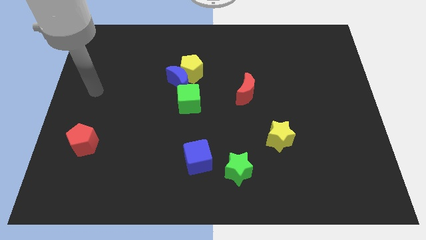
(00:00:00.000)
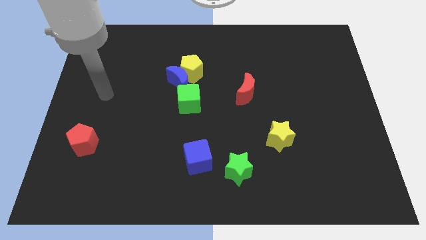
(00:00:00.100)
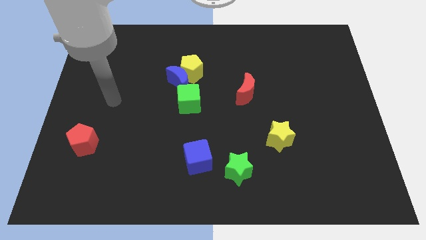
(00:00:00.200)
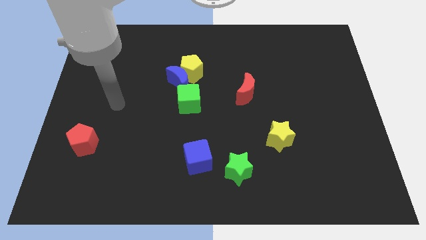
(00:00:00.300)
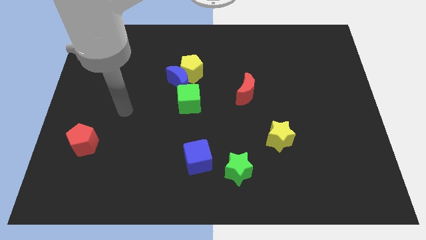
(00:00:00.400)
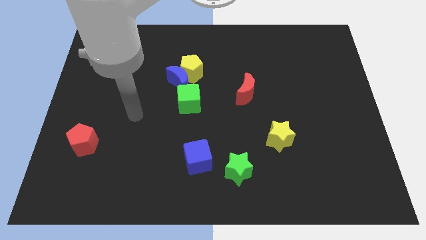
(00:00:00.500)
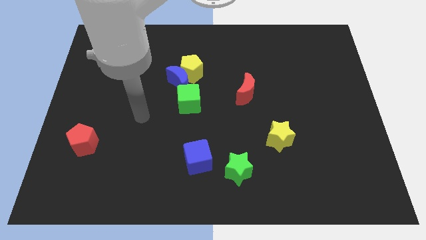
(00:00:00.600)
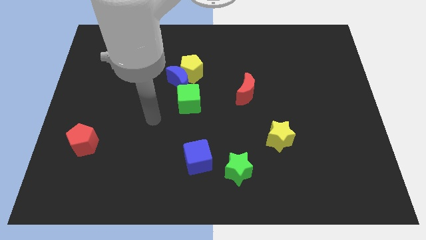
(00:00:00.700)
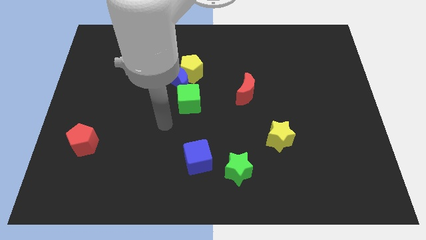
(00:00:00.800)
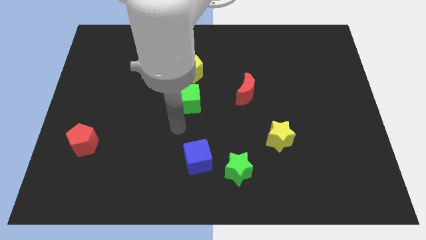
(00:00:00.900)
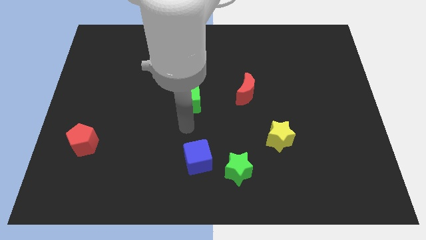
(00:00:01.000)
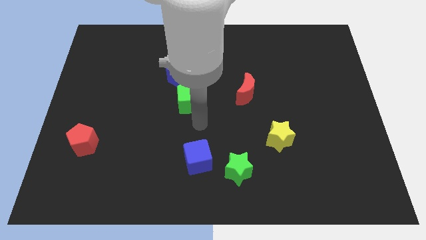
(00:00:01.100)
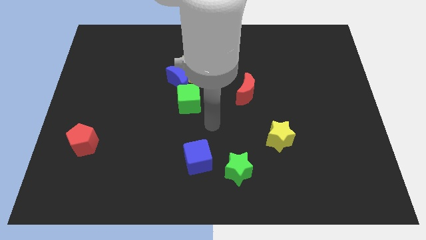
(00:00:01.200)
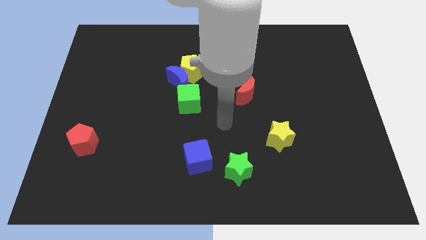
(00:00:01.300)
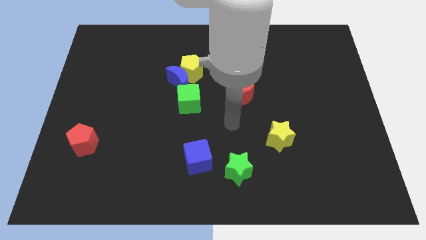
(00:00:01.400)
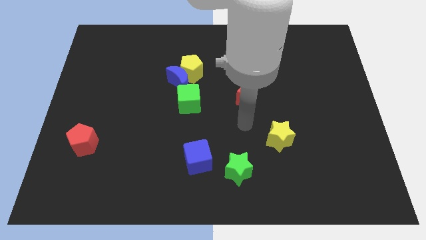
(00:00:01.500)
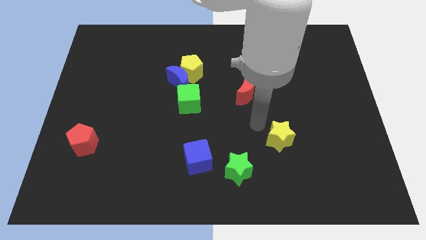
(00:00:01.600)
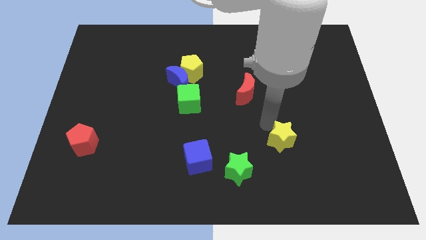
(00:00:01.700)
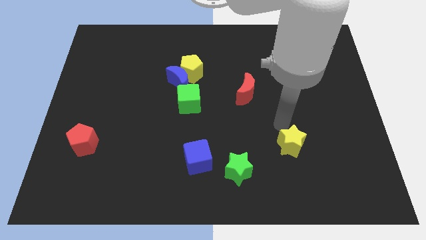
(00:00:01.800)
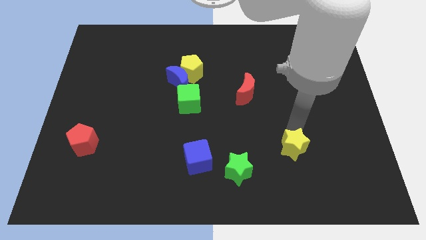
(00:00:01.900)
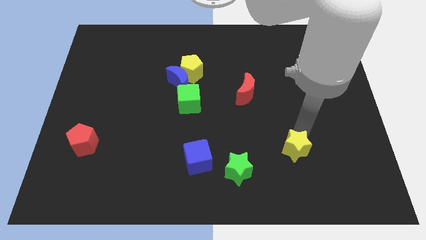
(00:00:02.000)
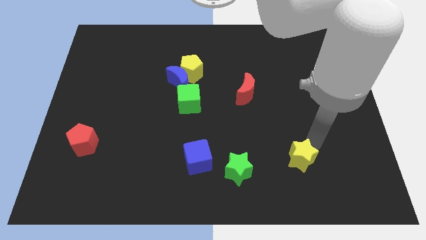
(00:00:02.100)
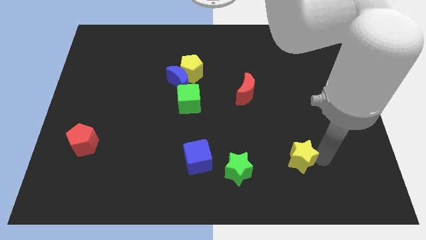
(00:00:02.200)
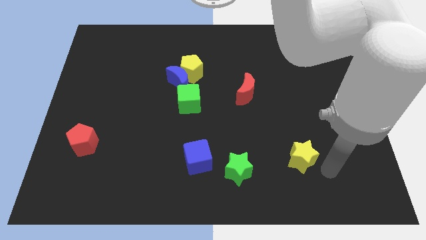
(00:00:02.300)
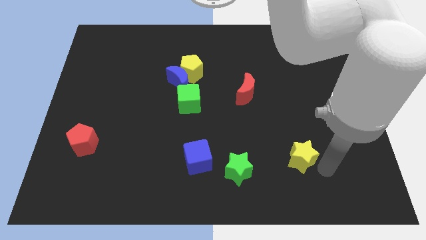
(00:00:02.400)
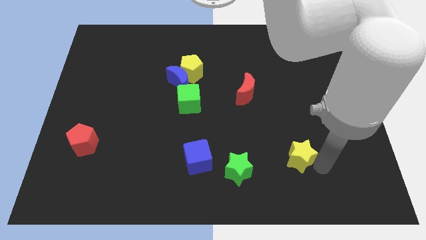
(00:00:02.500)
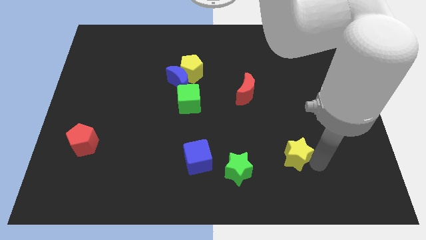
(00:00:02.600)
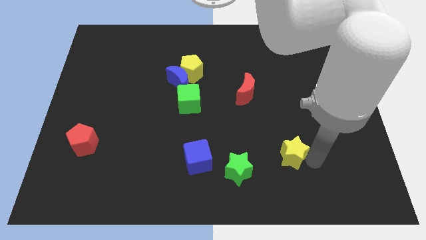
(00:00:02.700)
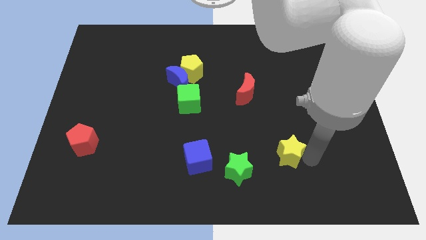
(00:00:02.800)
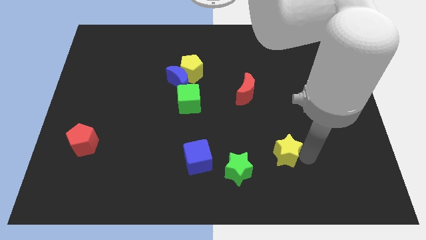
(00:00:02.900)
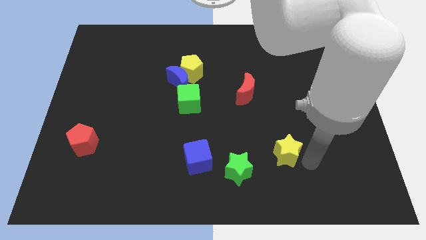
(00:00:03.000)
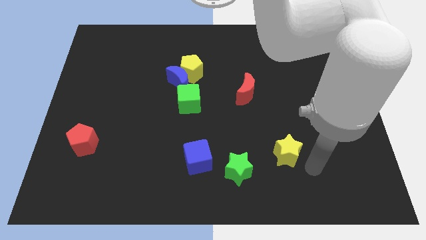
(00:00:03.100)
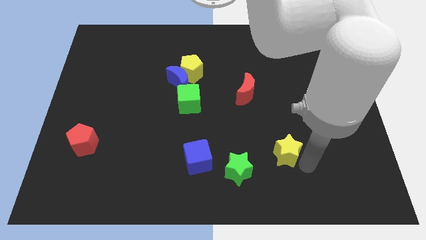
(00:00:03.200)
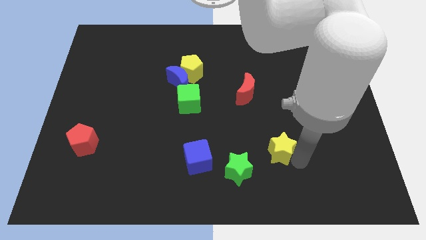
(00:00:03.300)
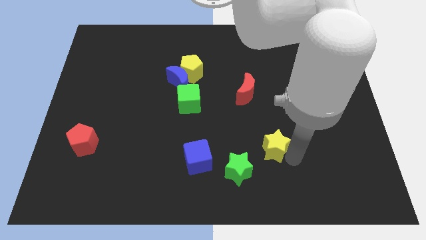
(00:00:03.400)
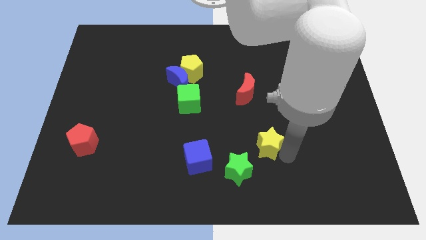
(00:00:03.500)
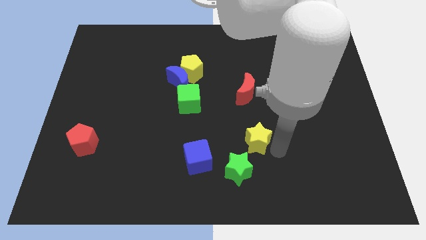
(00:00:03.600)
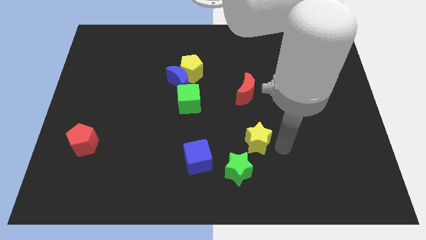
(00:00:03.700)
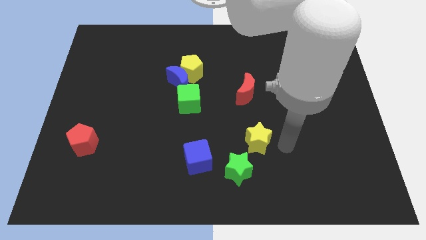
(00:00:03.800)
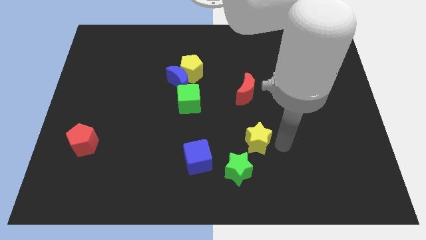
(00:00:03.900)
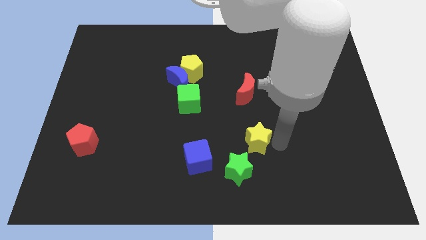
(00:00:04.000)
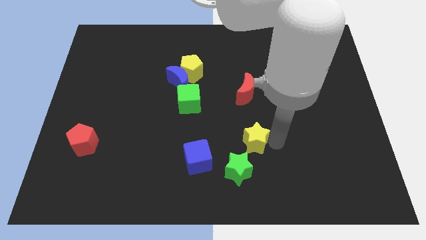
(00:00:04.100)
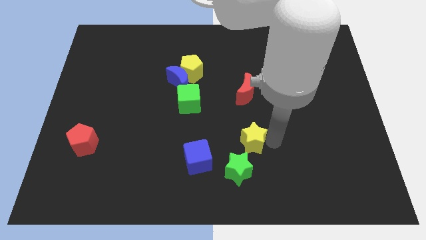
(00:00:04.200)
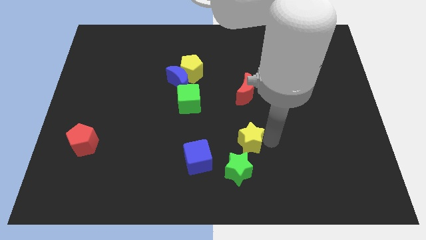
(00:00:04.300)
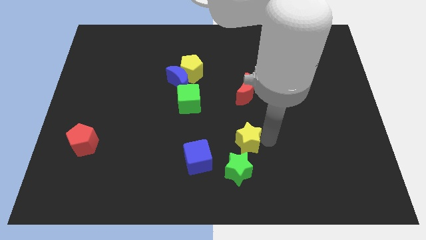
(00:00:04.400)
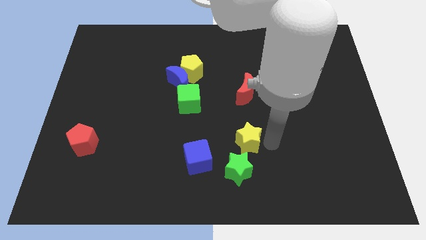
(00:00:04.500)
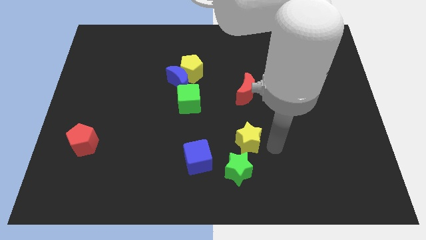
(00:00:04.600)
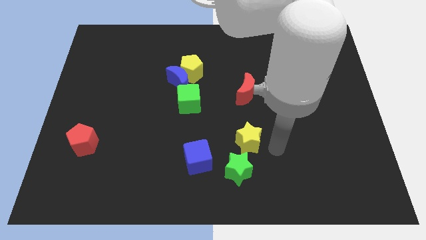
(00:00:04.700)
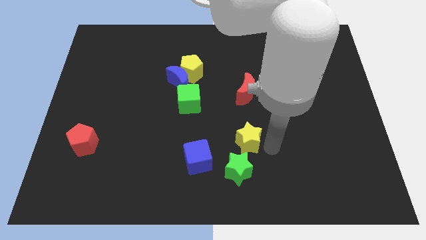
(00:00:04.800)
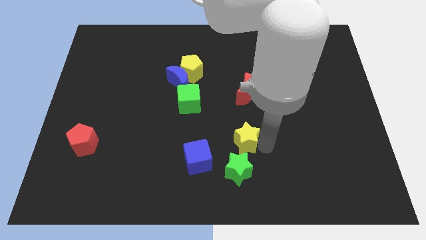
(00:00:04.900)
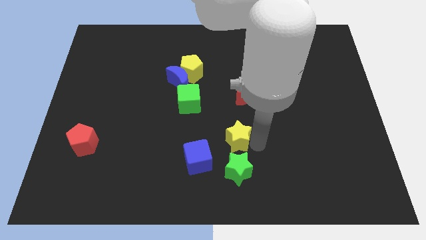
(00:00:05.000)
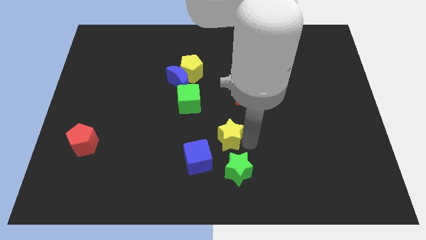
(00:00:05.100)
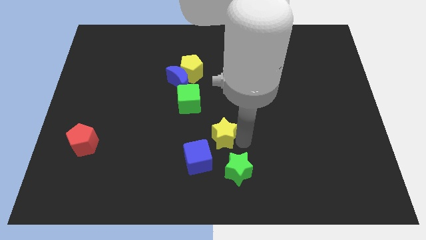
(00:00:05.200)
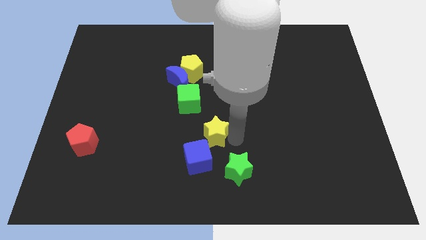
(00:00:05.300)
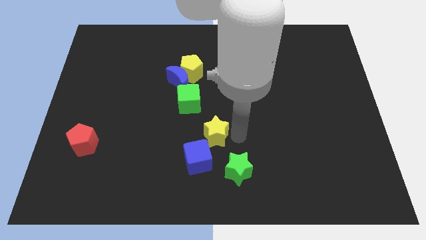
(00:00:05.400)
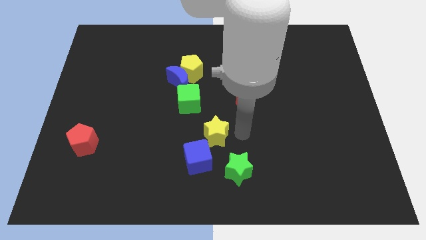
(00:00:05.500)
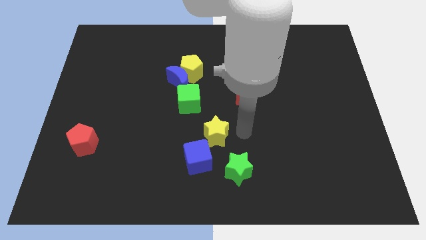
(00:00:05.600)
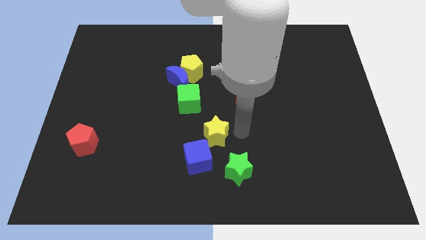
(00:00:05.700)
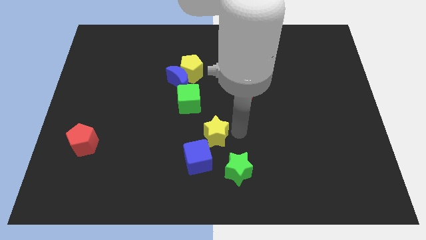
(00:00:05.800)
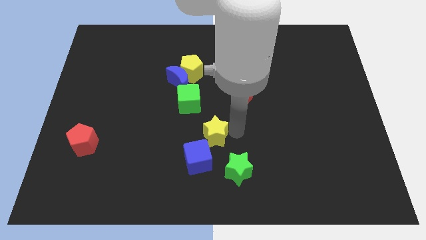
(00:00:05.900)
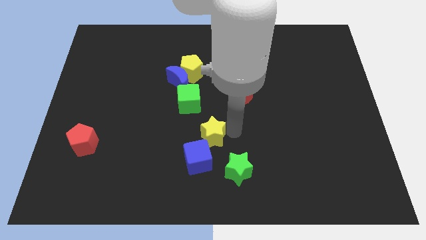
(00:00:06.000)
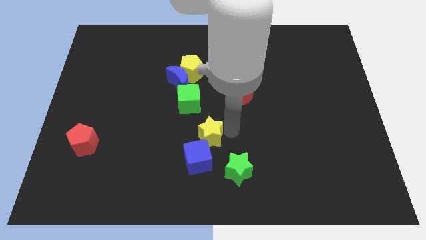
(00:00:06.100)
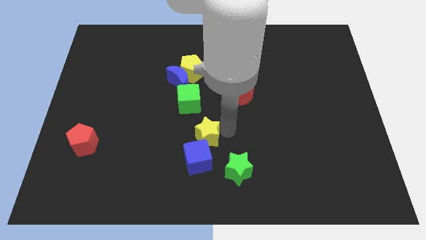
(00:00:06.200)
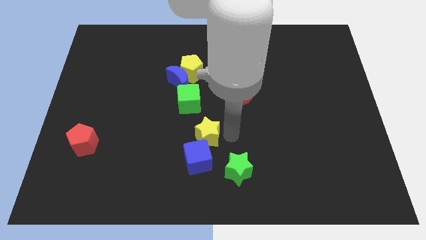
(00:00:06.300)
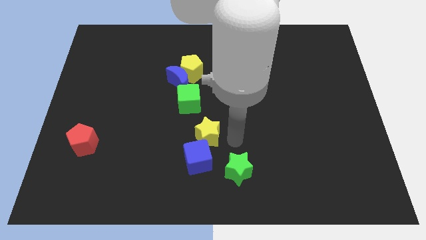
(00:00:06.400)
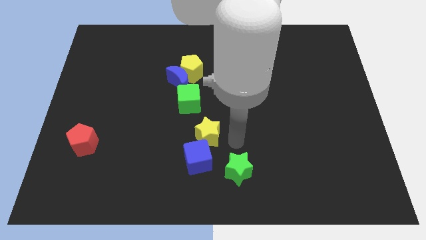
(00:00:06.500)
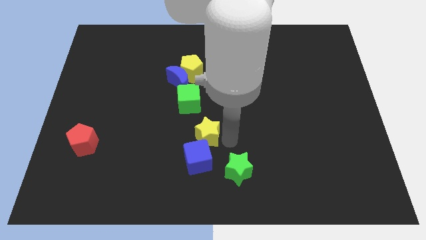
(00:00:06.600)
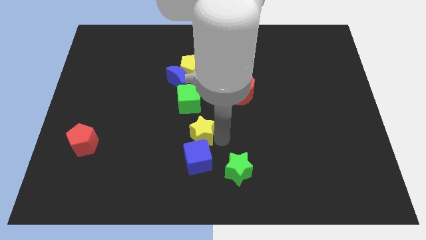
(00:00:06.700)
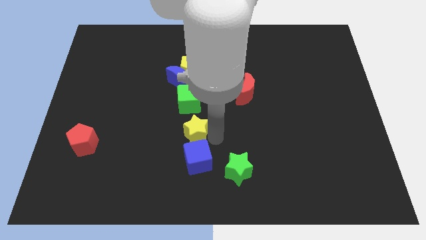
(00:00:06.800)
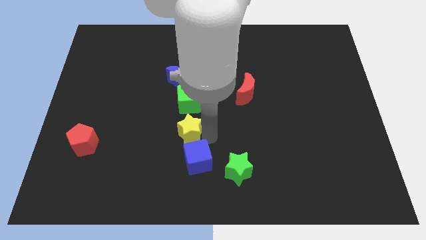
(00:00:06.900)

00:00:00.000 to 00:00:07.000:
slide the yellow star left

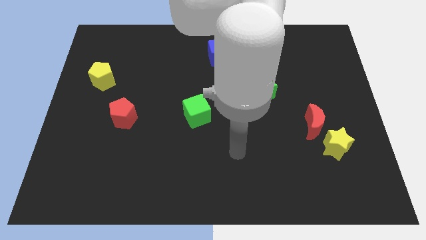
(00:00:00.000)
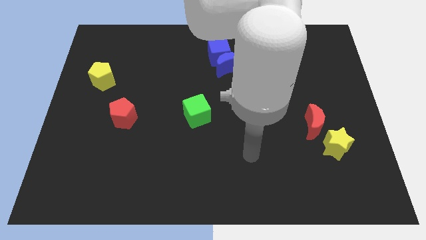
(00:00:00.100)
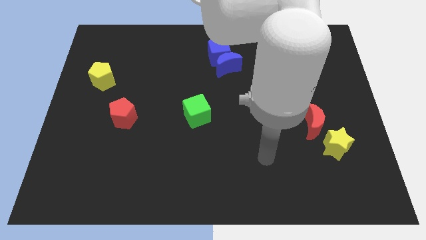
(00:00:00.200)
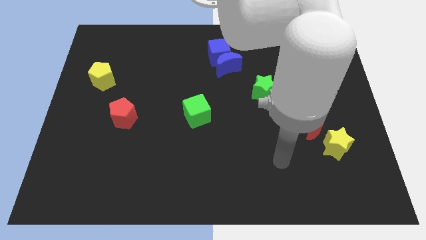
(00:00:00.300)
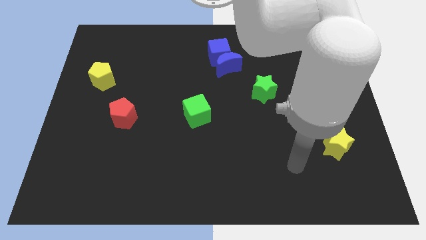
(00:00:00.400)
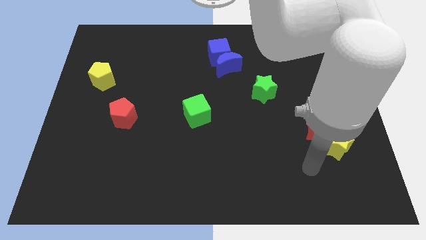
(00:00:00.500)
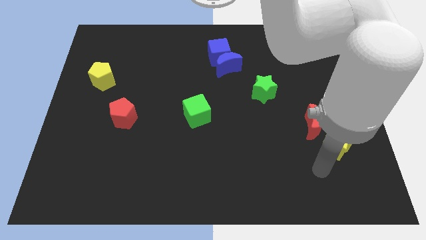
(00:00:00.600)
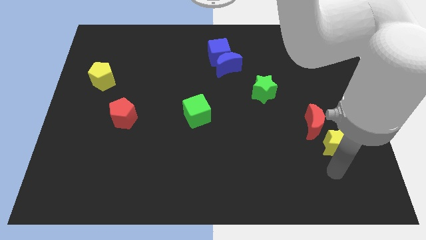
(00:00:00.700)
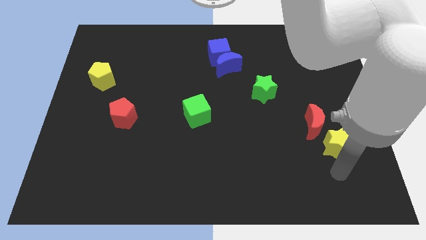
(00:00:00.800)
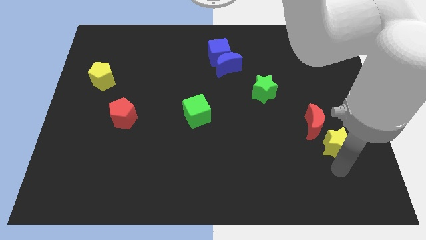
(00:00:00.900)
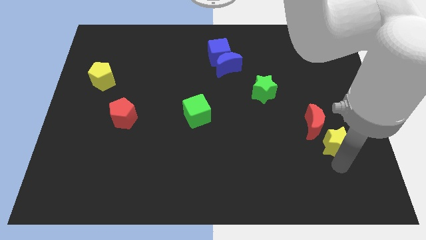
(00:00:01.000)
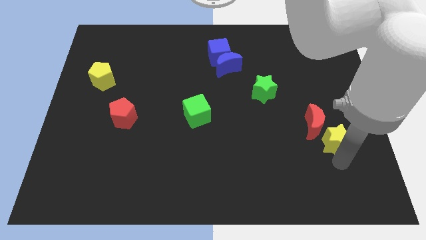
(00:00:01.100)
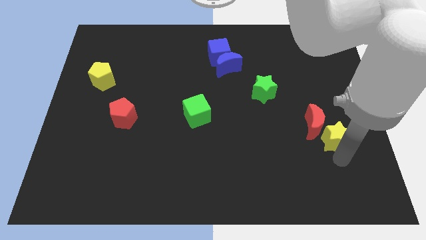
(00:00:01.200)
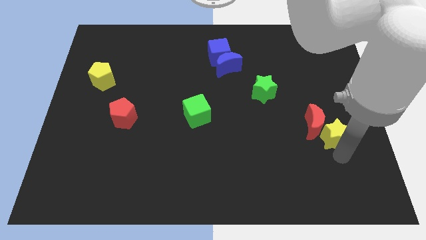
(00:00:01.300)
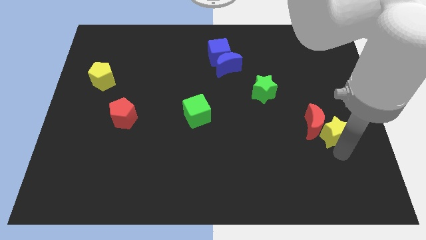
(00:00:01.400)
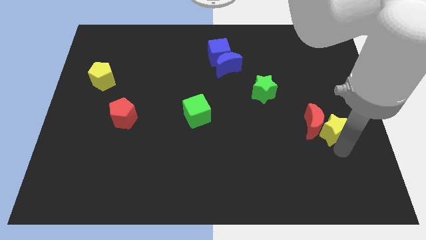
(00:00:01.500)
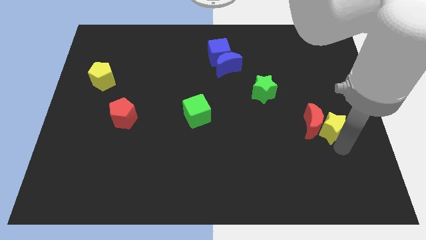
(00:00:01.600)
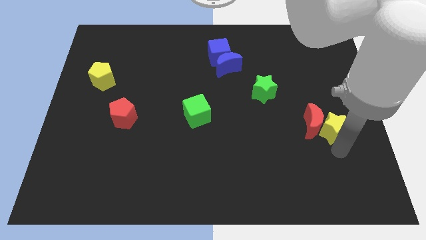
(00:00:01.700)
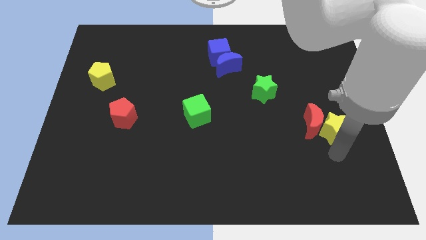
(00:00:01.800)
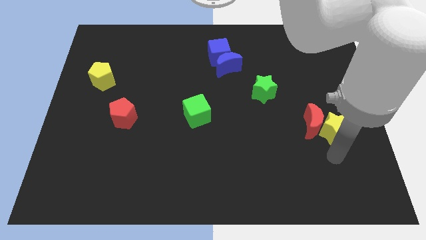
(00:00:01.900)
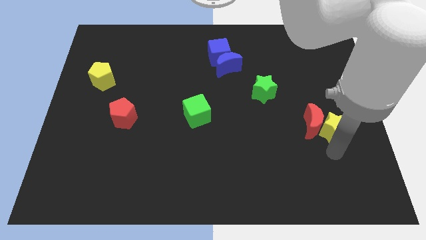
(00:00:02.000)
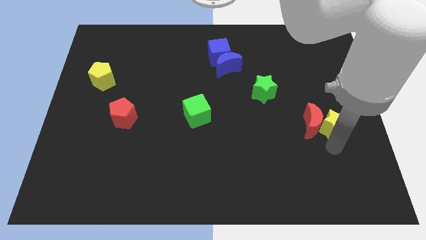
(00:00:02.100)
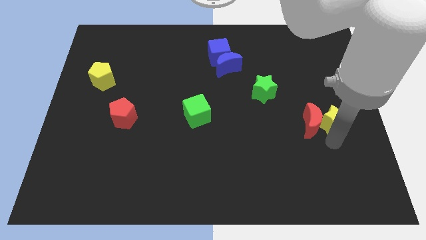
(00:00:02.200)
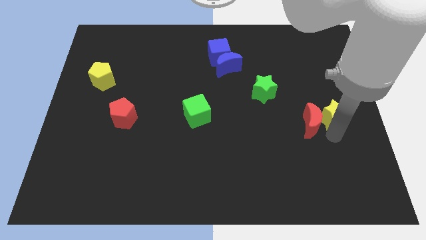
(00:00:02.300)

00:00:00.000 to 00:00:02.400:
move the yellow star up a bit
